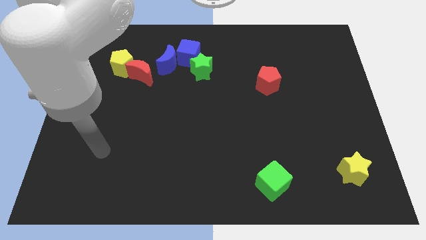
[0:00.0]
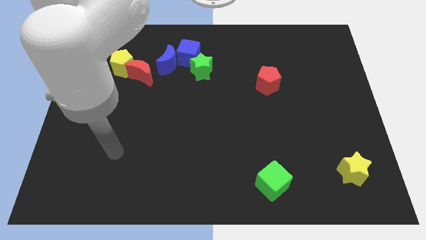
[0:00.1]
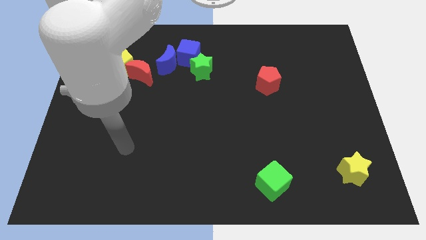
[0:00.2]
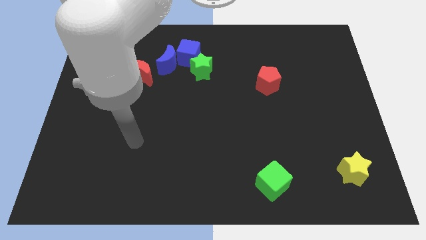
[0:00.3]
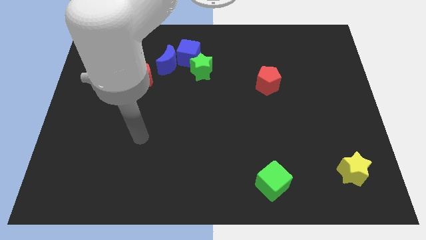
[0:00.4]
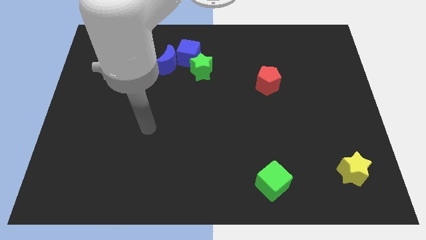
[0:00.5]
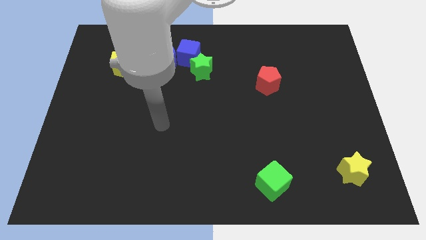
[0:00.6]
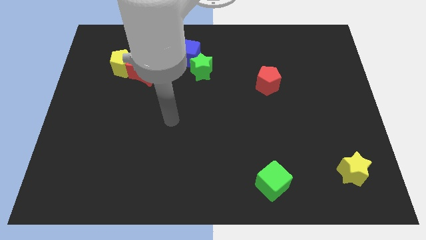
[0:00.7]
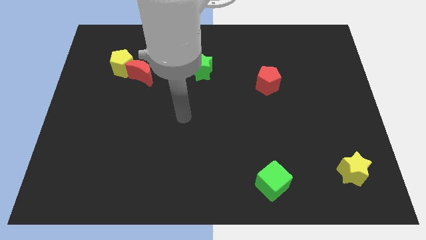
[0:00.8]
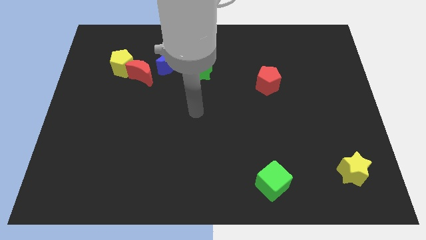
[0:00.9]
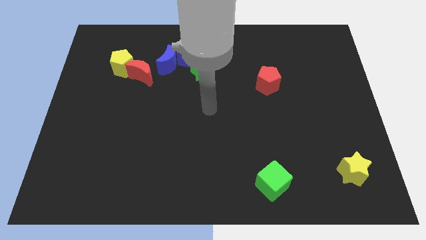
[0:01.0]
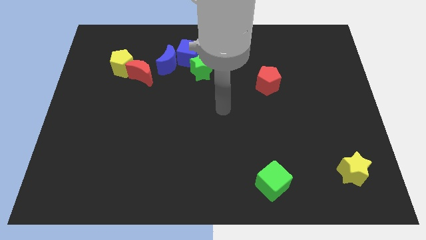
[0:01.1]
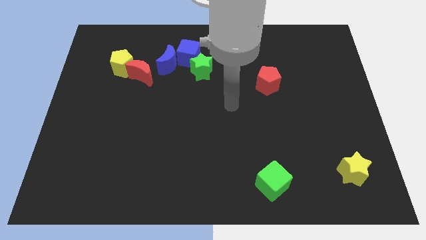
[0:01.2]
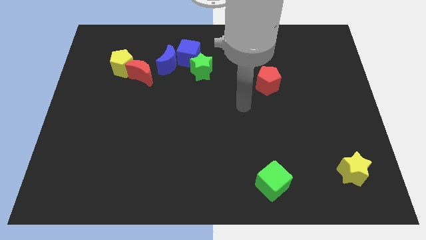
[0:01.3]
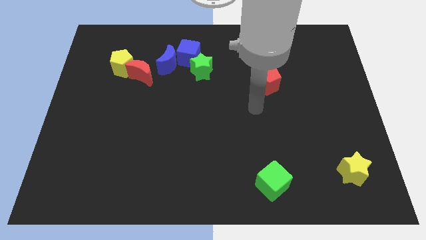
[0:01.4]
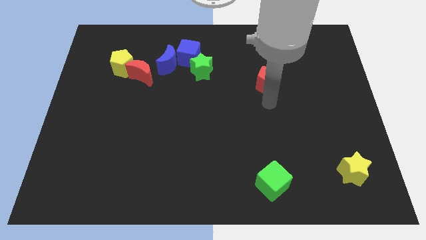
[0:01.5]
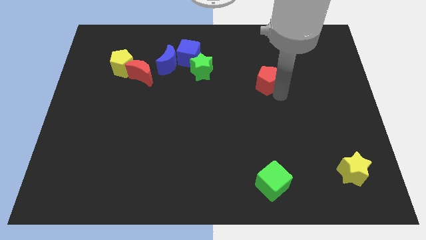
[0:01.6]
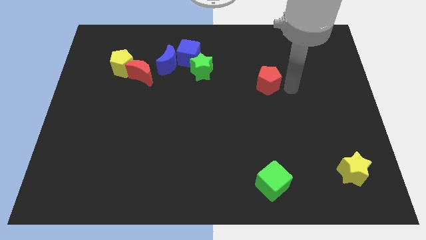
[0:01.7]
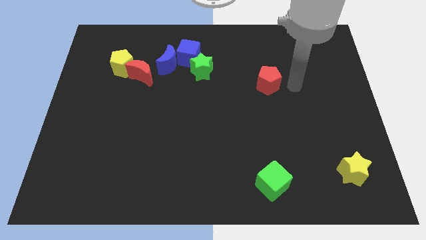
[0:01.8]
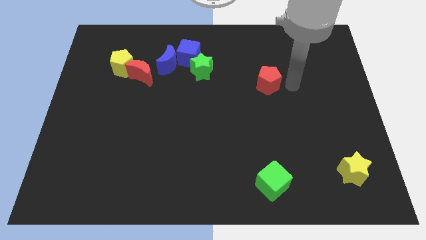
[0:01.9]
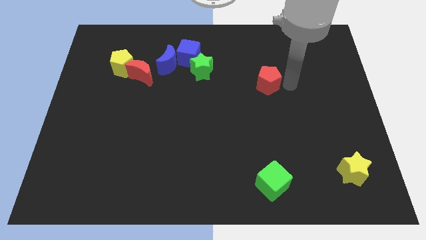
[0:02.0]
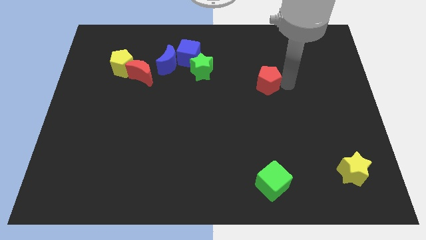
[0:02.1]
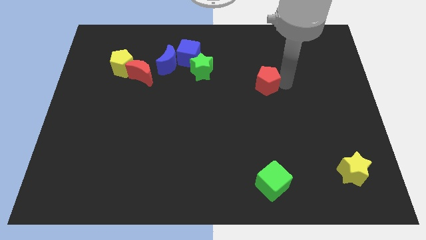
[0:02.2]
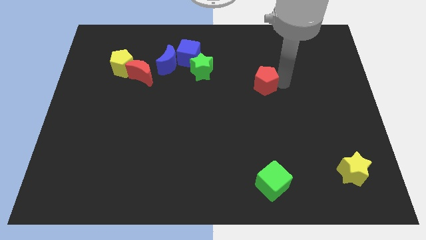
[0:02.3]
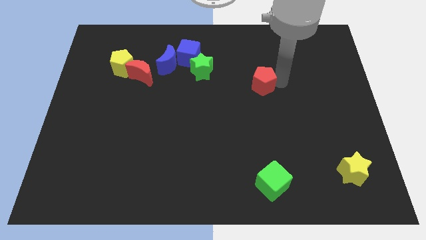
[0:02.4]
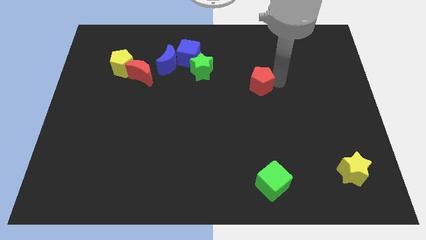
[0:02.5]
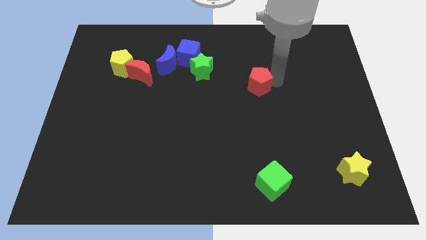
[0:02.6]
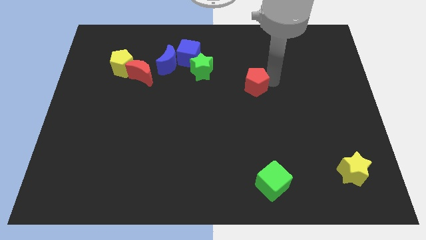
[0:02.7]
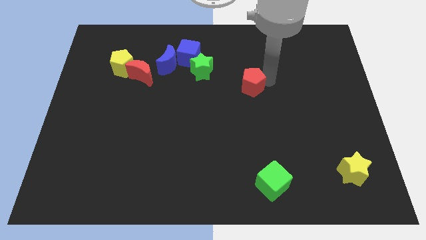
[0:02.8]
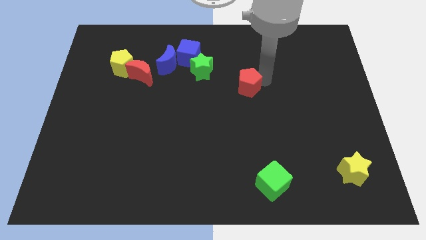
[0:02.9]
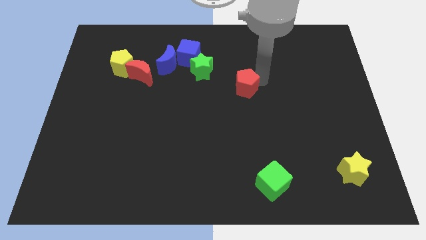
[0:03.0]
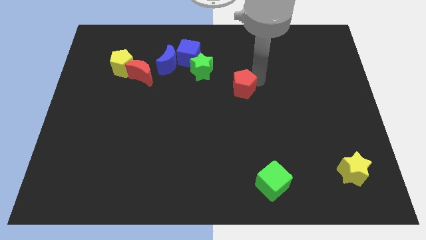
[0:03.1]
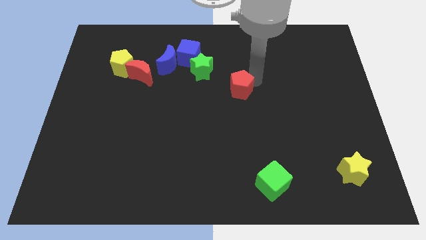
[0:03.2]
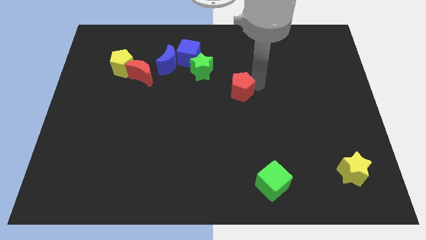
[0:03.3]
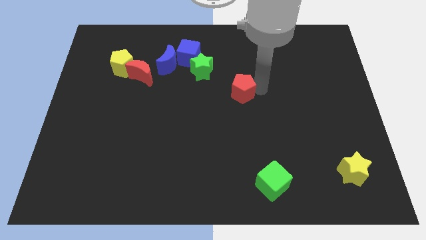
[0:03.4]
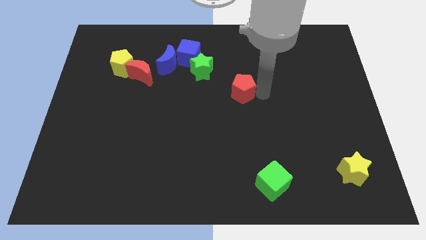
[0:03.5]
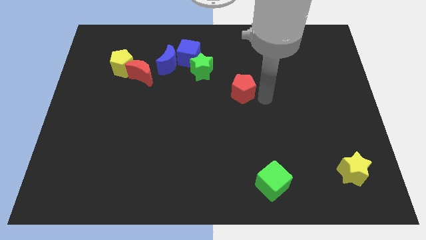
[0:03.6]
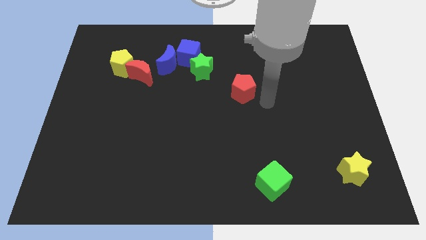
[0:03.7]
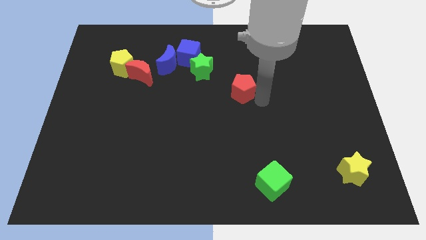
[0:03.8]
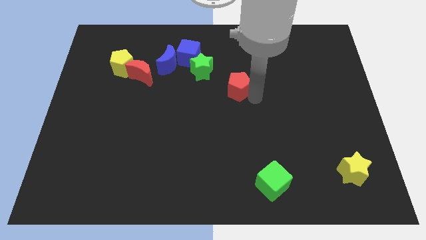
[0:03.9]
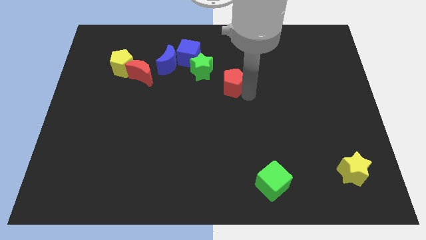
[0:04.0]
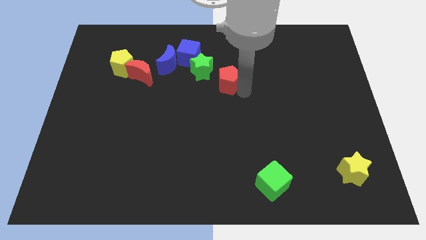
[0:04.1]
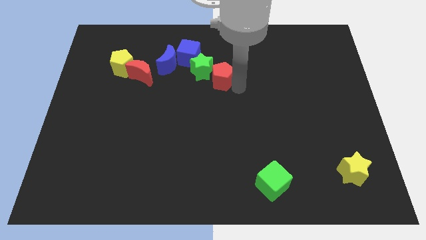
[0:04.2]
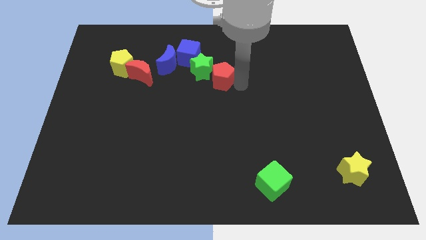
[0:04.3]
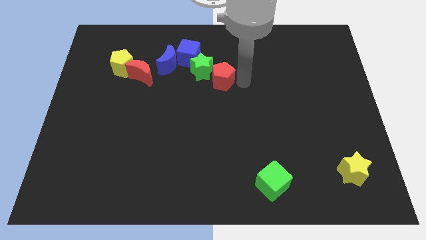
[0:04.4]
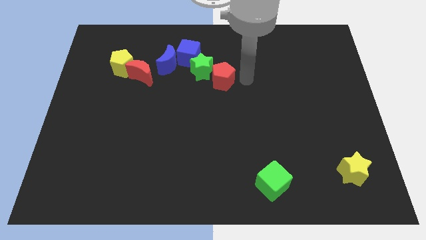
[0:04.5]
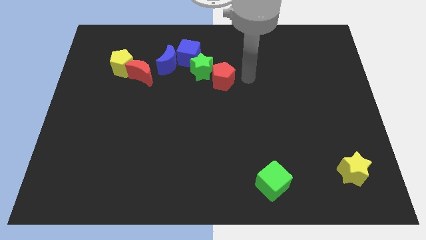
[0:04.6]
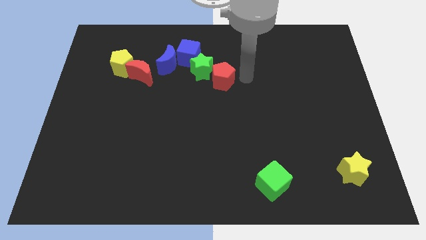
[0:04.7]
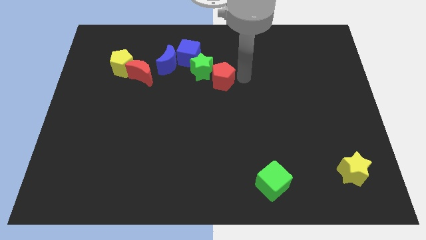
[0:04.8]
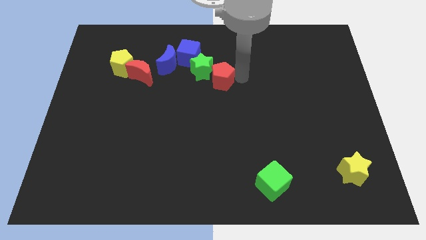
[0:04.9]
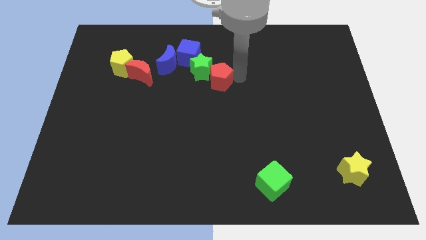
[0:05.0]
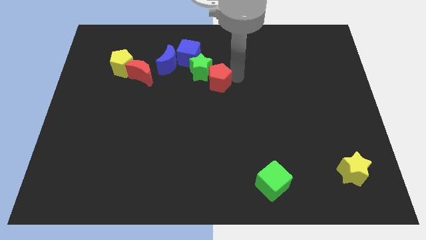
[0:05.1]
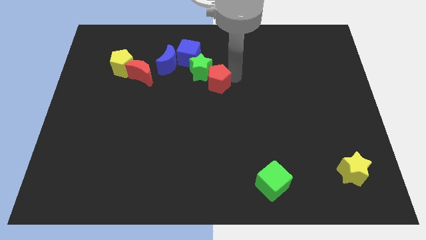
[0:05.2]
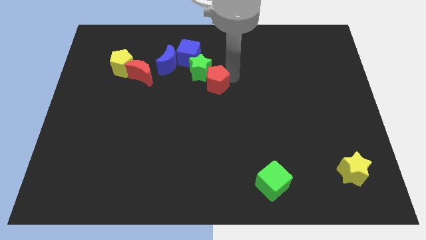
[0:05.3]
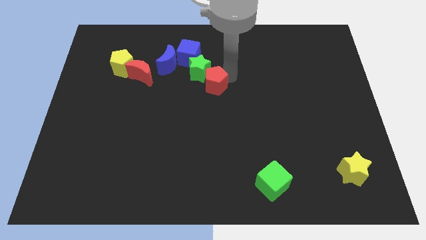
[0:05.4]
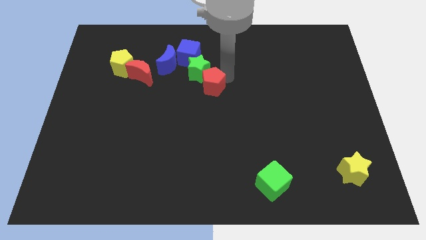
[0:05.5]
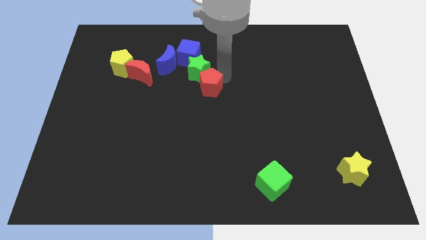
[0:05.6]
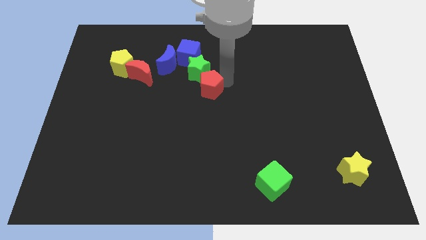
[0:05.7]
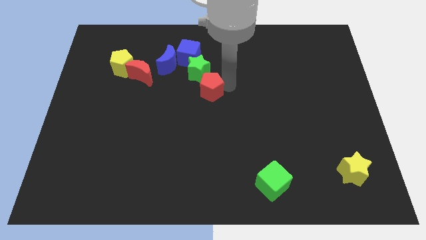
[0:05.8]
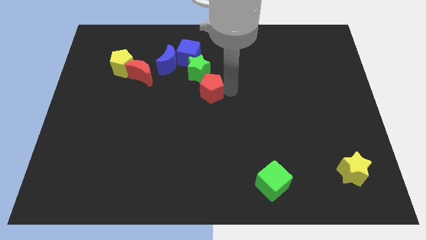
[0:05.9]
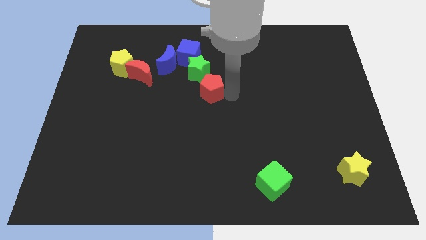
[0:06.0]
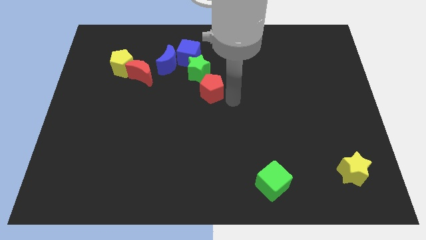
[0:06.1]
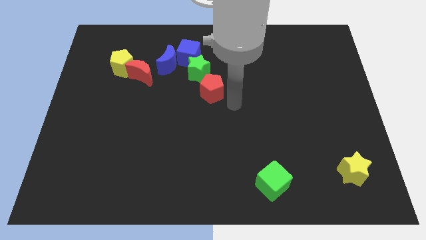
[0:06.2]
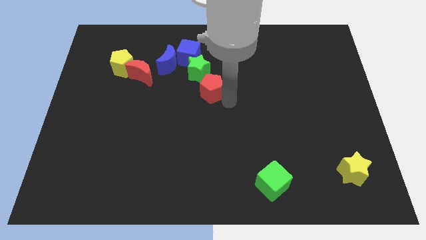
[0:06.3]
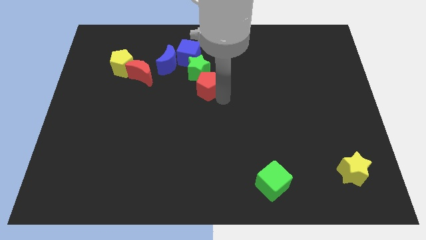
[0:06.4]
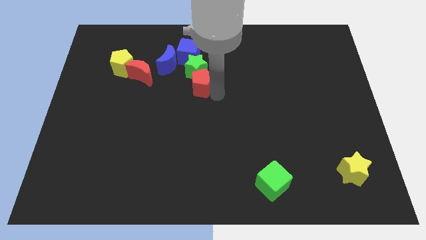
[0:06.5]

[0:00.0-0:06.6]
put the red pentagon to the bottom right side of the blue moon
